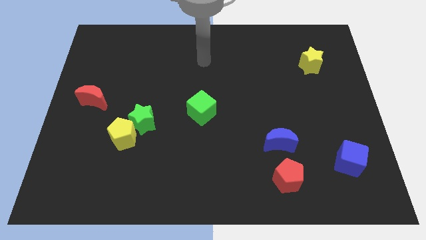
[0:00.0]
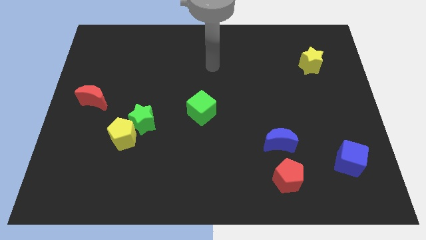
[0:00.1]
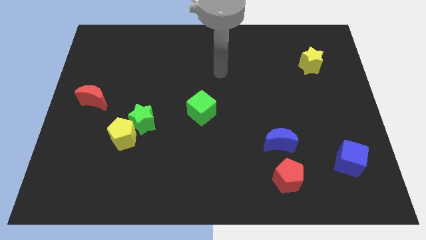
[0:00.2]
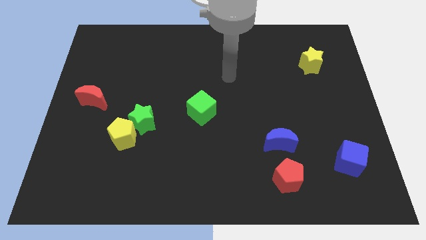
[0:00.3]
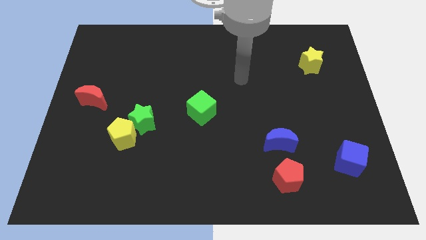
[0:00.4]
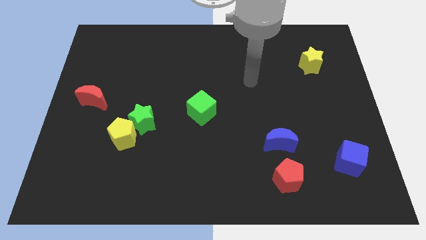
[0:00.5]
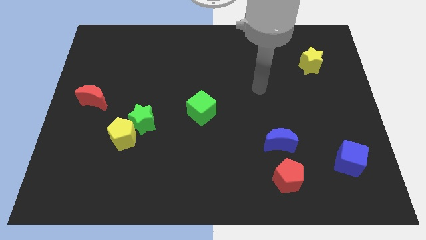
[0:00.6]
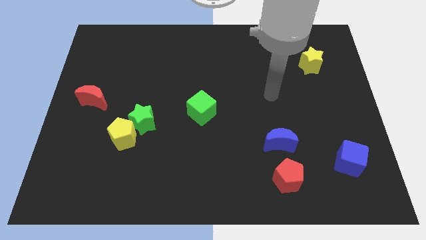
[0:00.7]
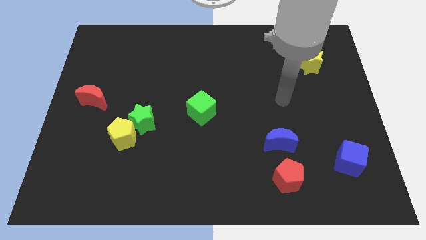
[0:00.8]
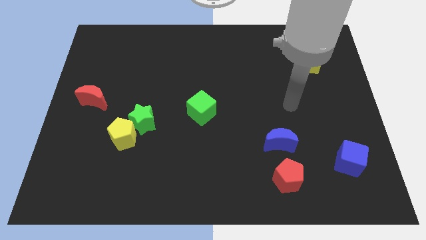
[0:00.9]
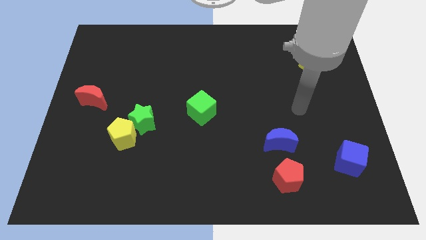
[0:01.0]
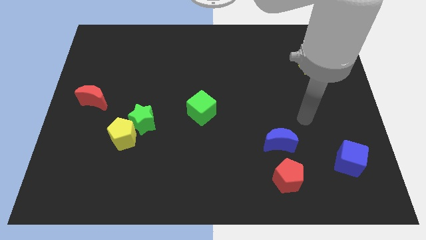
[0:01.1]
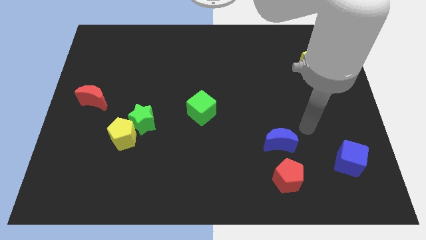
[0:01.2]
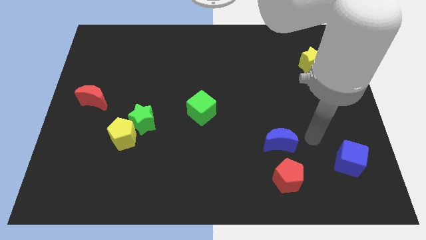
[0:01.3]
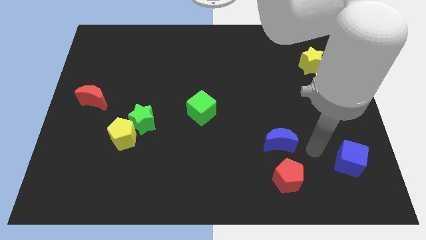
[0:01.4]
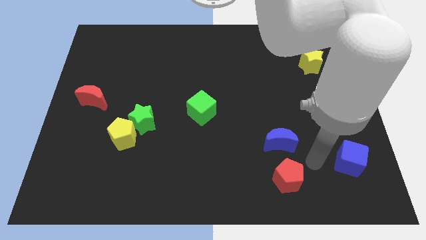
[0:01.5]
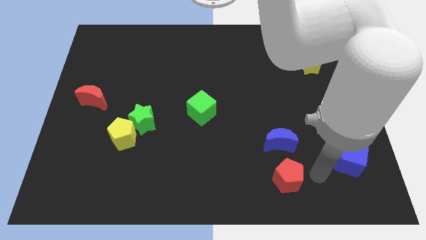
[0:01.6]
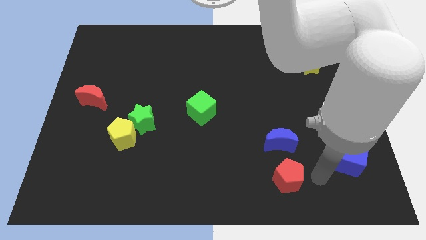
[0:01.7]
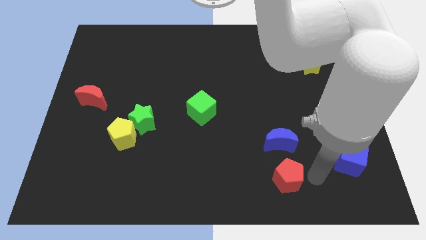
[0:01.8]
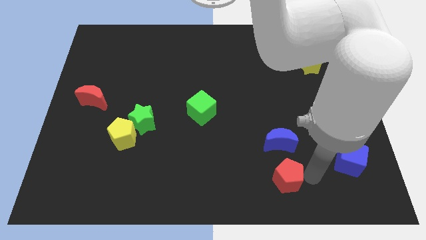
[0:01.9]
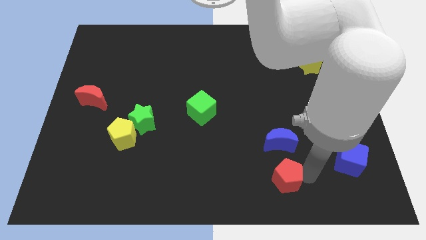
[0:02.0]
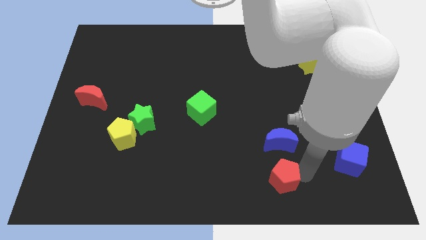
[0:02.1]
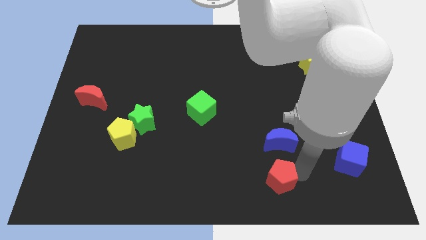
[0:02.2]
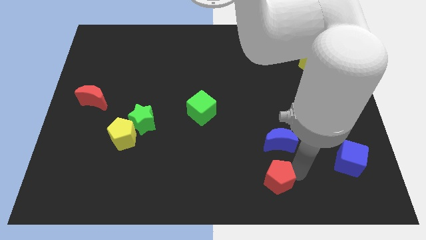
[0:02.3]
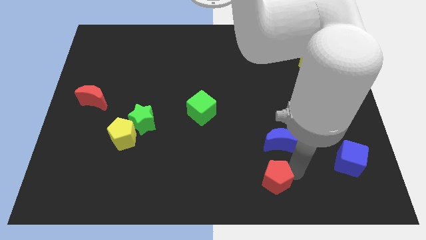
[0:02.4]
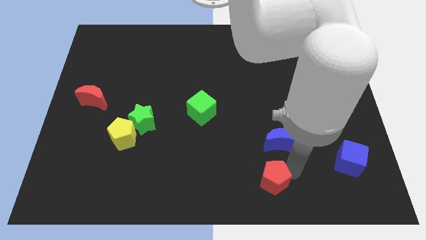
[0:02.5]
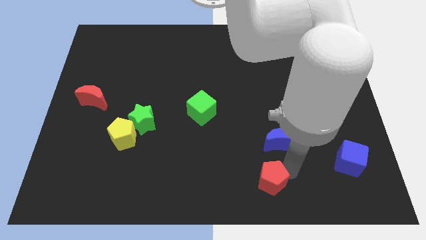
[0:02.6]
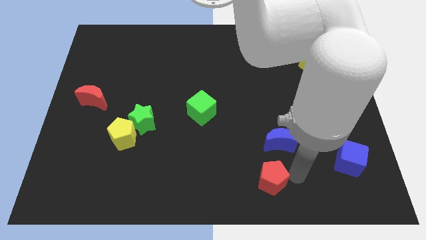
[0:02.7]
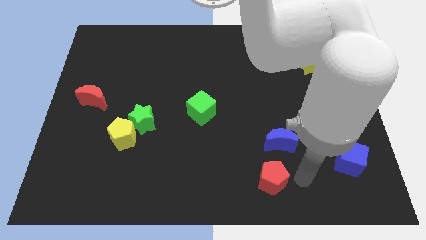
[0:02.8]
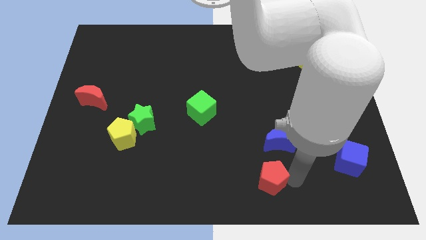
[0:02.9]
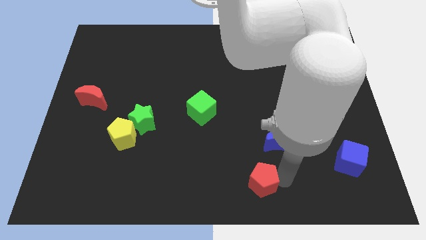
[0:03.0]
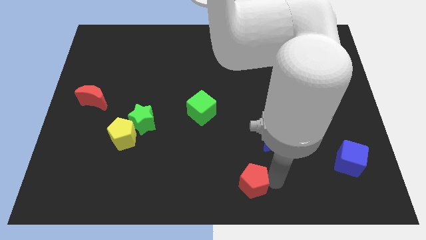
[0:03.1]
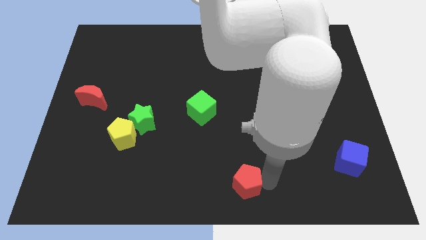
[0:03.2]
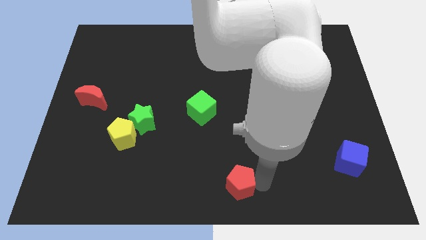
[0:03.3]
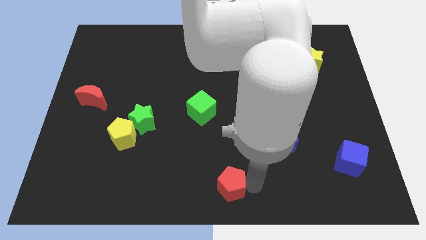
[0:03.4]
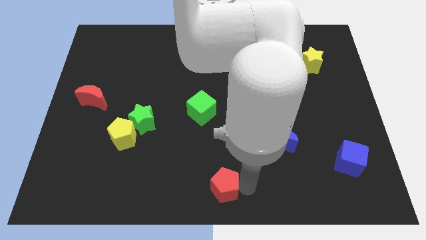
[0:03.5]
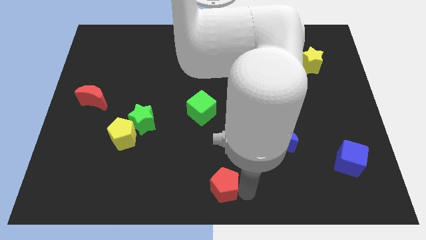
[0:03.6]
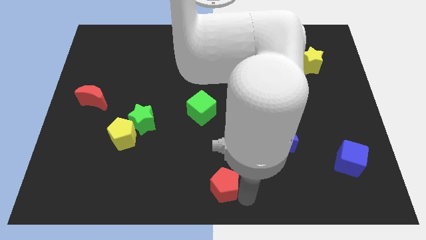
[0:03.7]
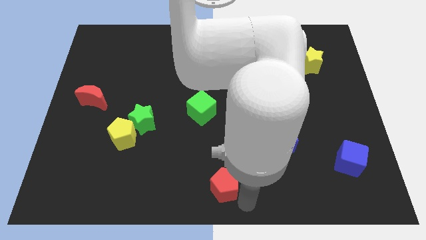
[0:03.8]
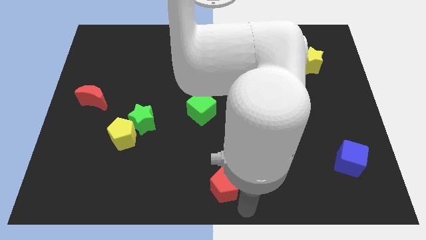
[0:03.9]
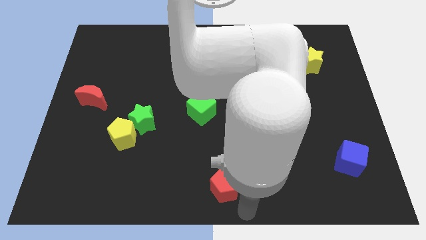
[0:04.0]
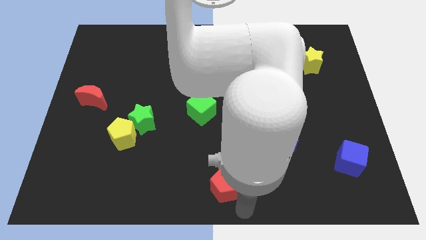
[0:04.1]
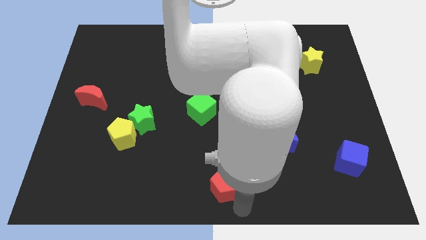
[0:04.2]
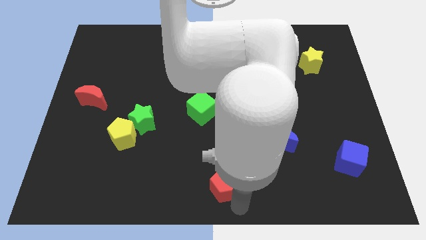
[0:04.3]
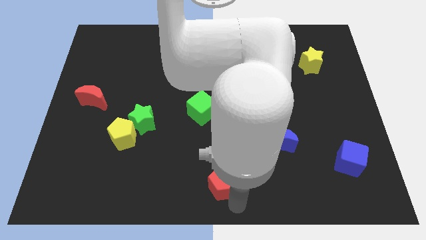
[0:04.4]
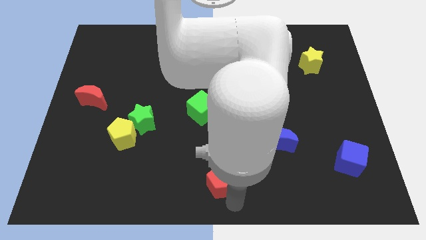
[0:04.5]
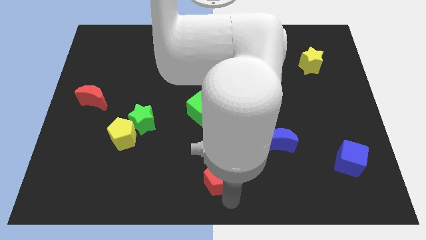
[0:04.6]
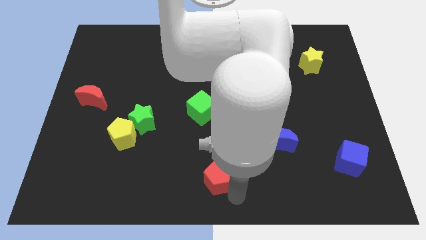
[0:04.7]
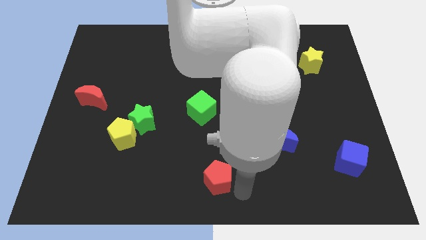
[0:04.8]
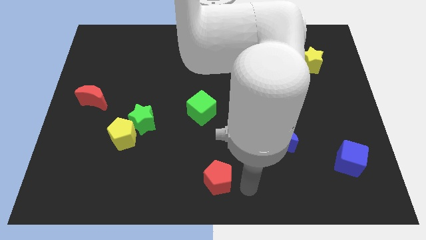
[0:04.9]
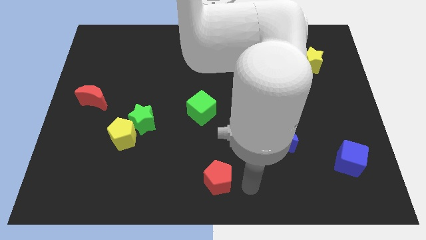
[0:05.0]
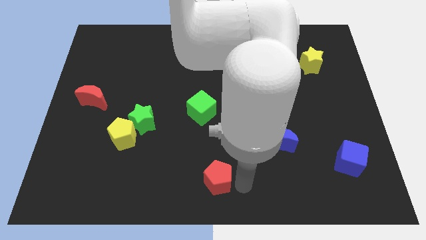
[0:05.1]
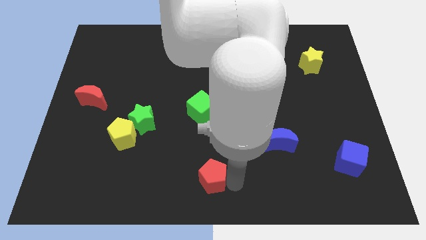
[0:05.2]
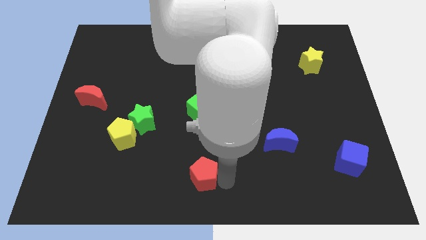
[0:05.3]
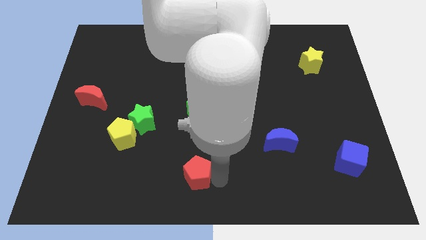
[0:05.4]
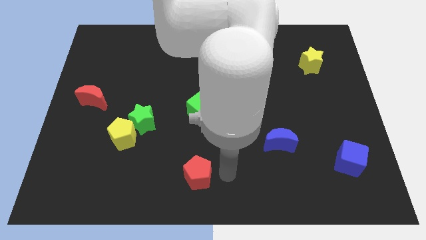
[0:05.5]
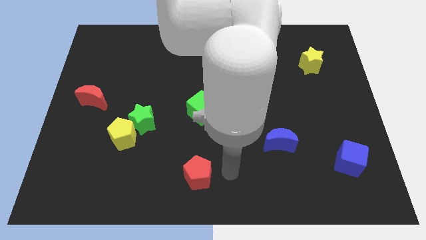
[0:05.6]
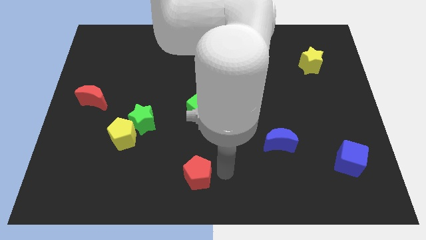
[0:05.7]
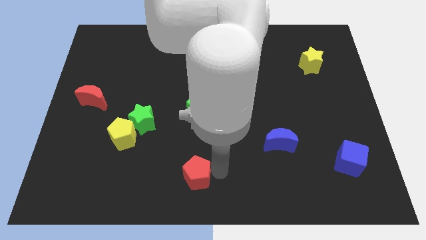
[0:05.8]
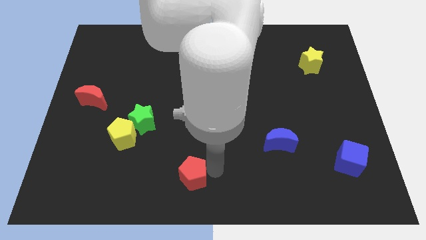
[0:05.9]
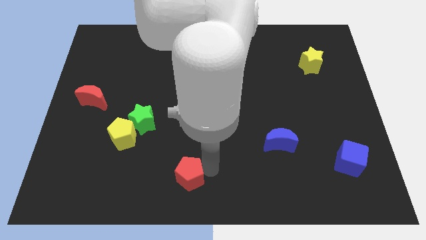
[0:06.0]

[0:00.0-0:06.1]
slide the red pentagon left

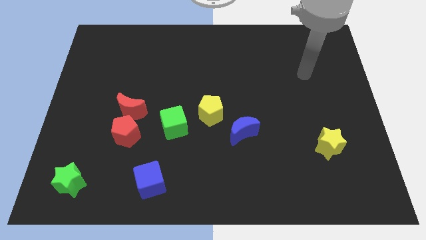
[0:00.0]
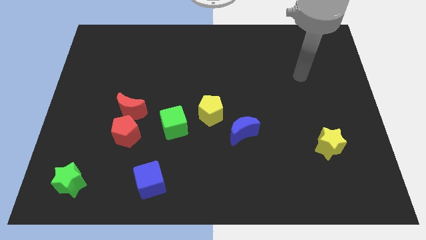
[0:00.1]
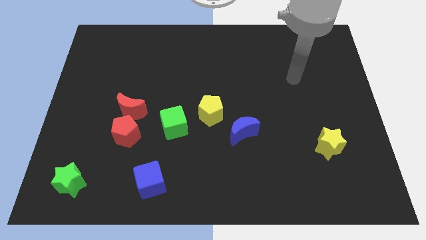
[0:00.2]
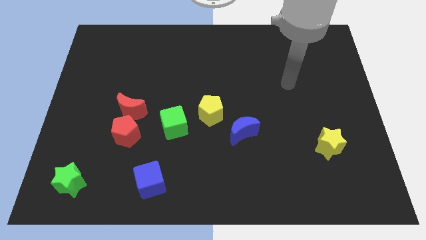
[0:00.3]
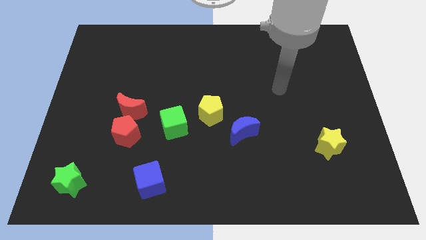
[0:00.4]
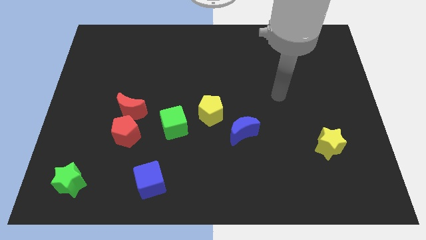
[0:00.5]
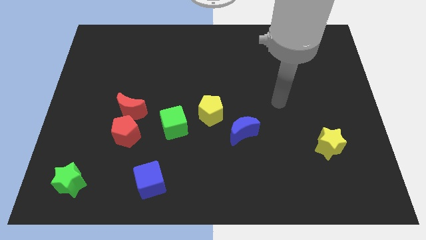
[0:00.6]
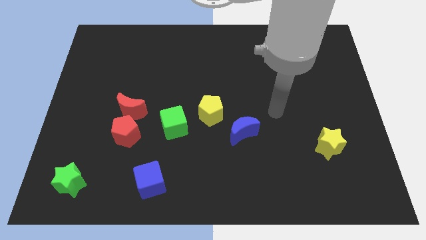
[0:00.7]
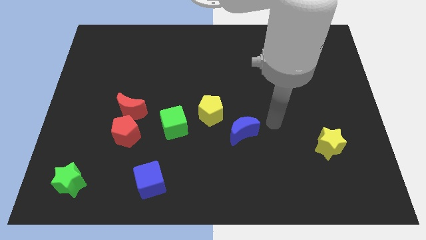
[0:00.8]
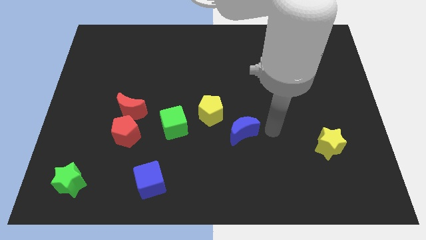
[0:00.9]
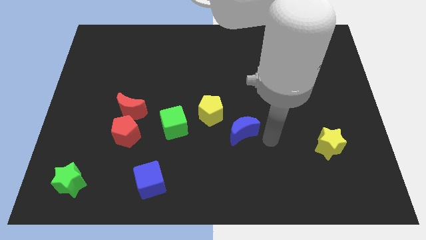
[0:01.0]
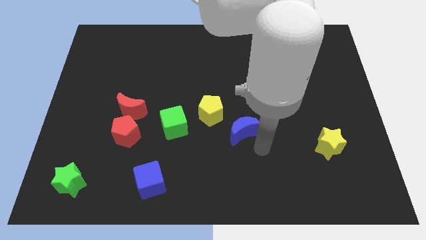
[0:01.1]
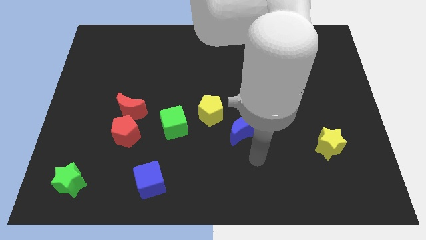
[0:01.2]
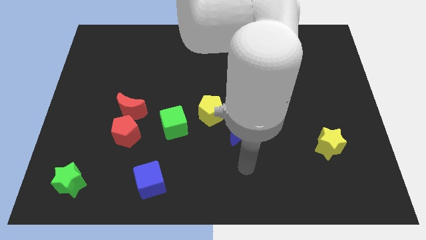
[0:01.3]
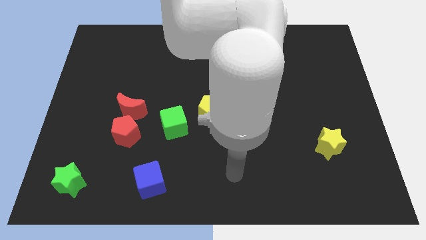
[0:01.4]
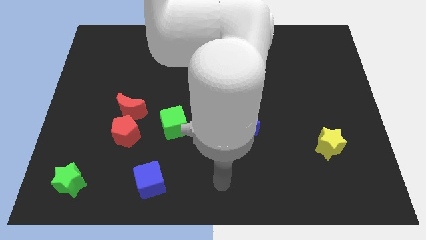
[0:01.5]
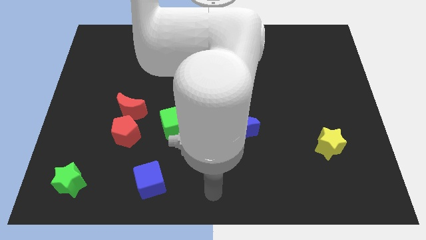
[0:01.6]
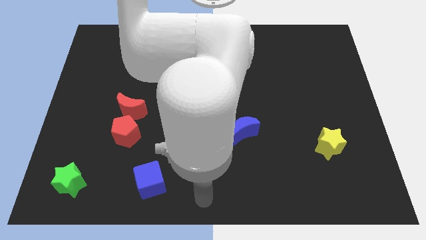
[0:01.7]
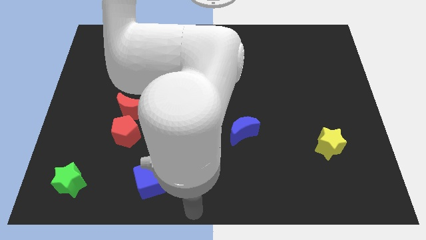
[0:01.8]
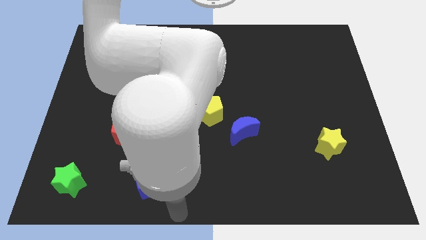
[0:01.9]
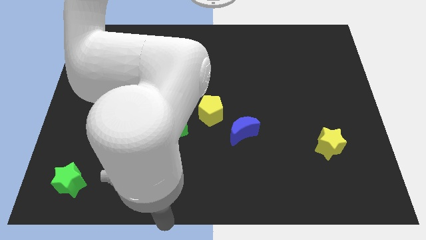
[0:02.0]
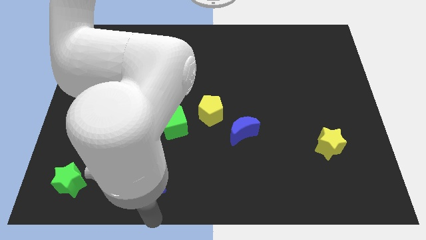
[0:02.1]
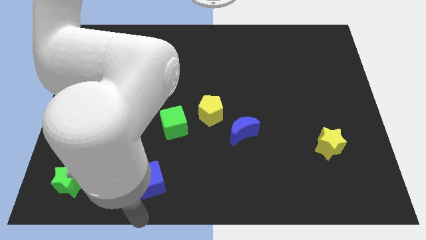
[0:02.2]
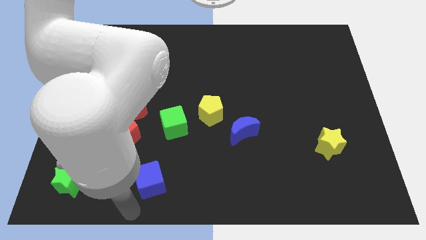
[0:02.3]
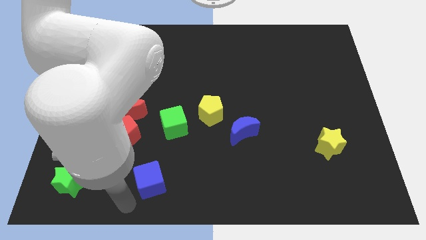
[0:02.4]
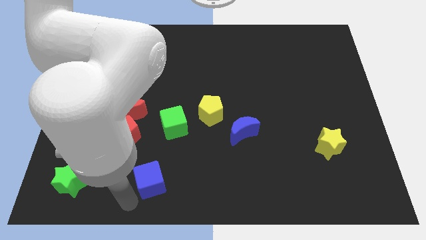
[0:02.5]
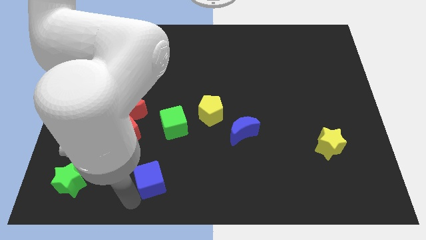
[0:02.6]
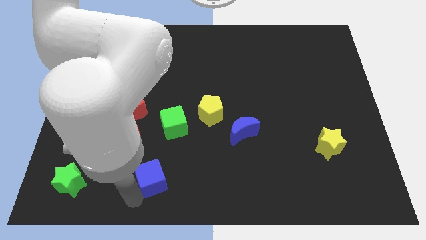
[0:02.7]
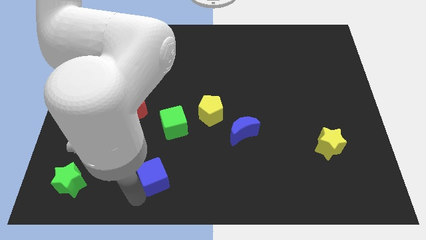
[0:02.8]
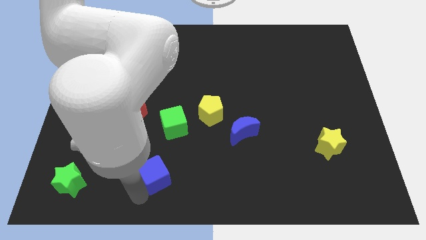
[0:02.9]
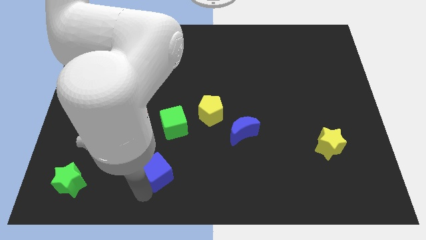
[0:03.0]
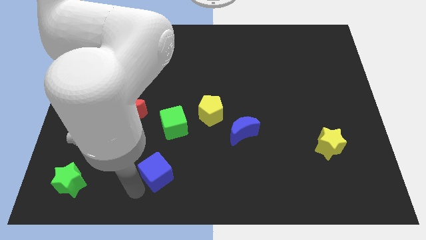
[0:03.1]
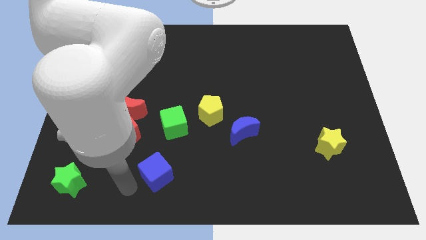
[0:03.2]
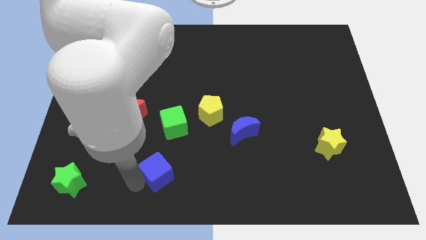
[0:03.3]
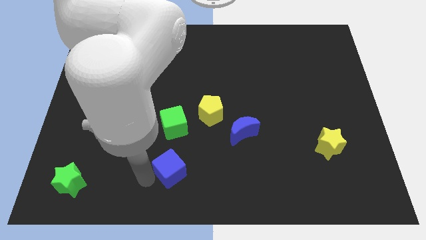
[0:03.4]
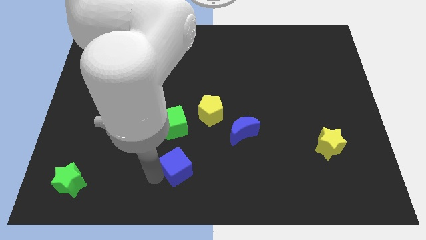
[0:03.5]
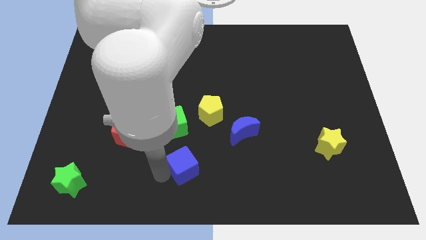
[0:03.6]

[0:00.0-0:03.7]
push the blue cube somewhat diagonally up and right
